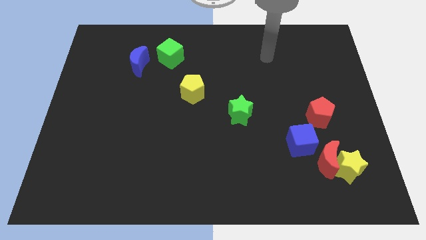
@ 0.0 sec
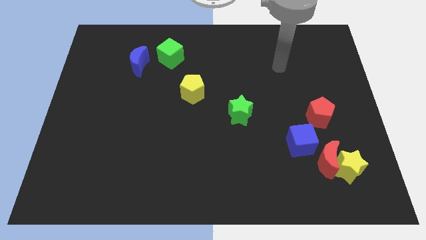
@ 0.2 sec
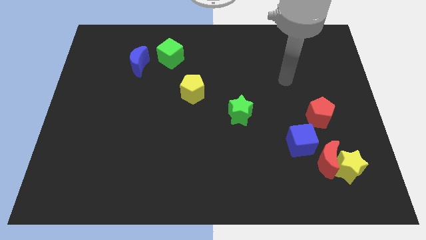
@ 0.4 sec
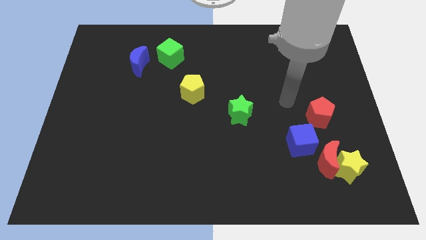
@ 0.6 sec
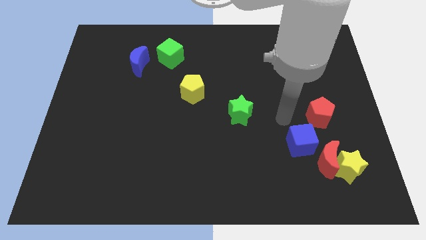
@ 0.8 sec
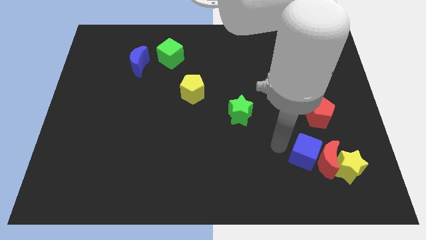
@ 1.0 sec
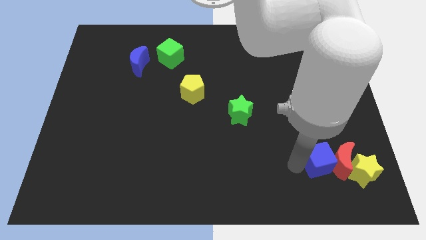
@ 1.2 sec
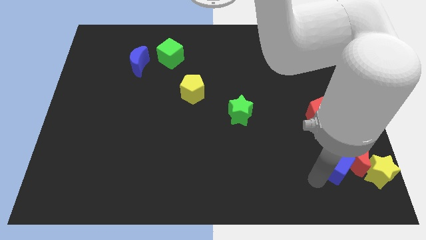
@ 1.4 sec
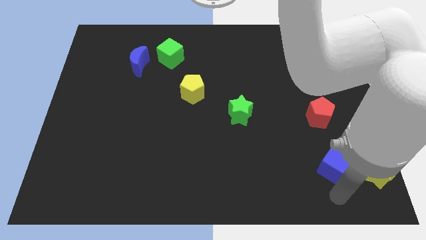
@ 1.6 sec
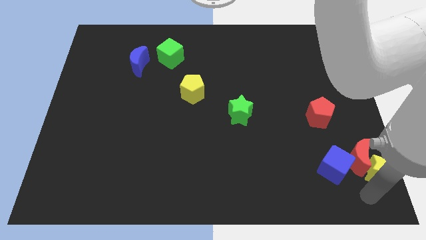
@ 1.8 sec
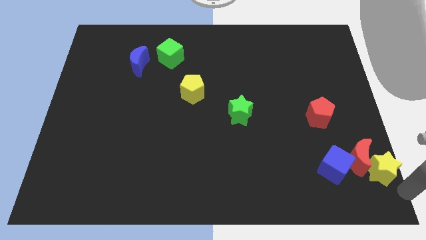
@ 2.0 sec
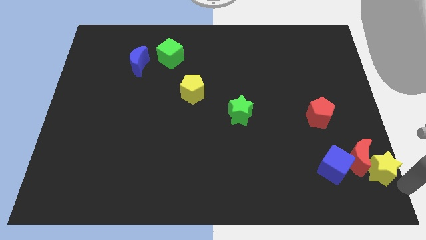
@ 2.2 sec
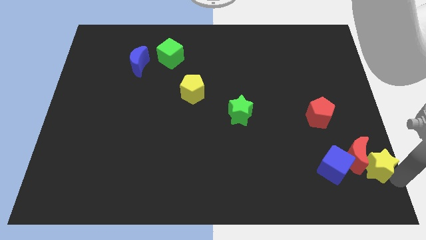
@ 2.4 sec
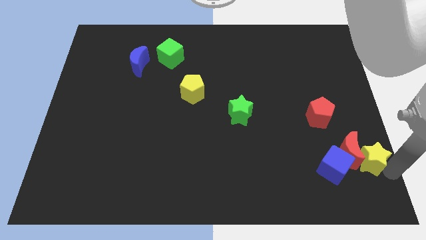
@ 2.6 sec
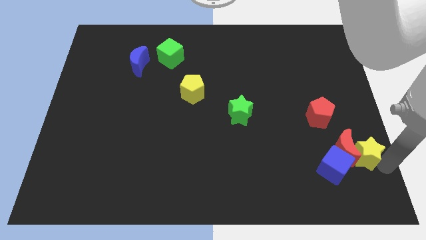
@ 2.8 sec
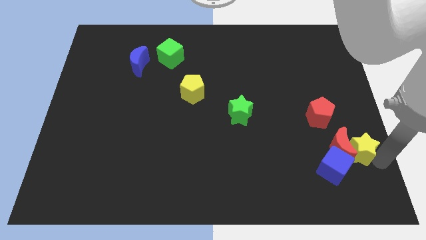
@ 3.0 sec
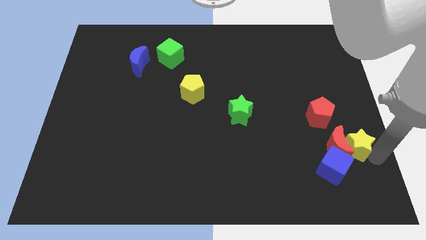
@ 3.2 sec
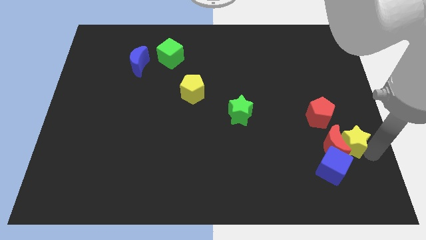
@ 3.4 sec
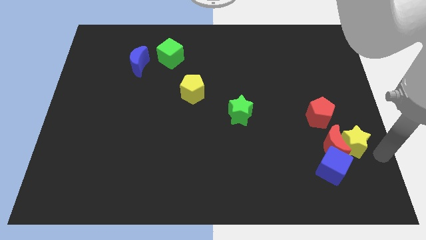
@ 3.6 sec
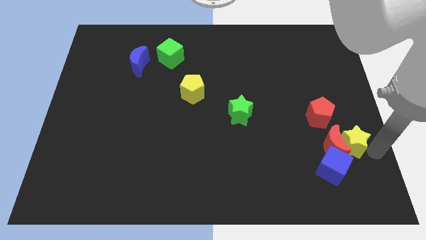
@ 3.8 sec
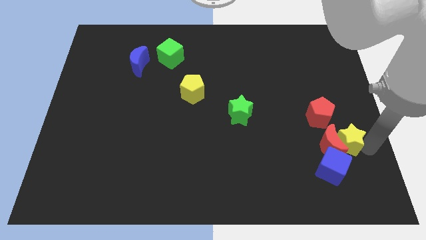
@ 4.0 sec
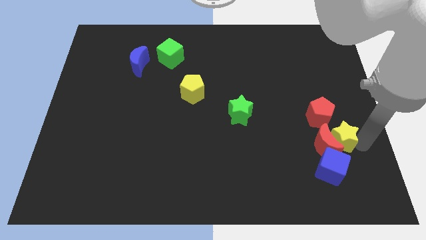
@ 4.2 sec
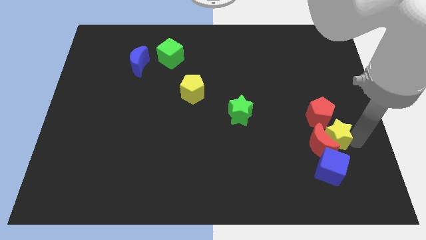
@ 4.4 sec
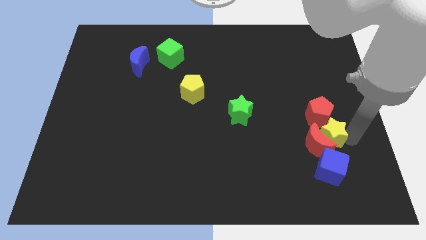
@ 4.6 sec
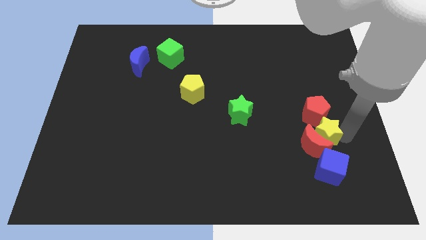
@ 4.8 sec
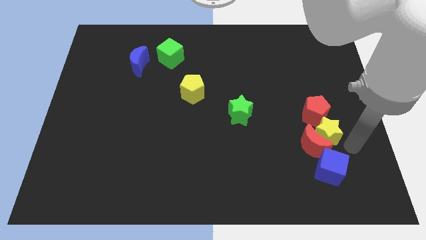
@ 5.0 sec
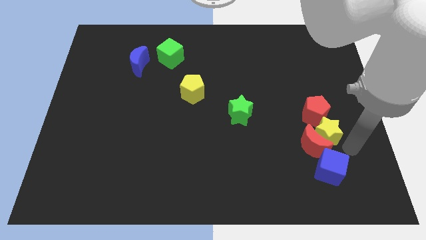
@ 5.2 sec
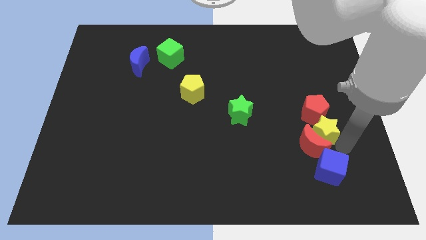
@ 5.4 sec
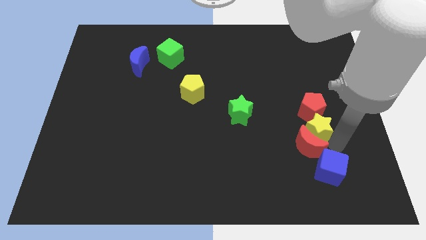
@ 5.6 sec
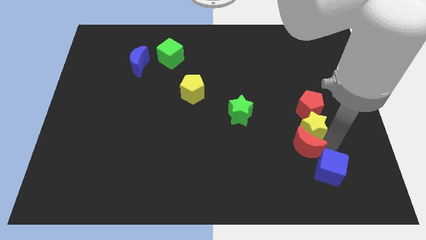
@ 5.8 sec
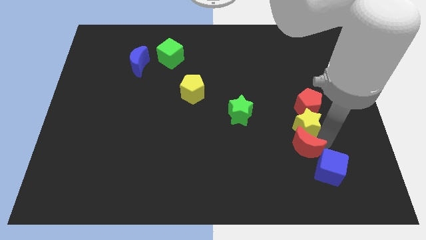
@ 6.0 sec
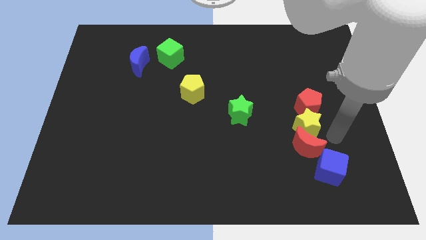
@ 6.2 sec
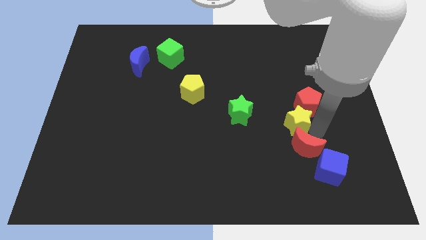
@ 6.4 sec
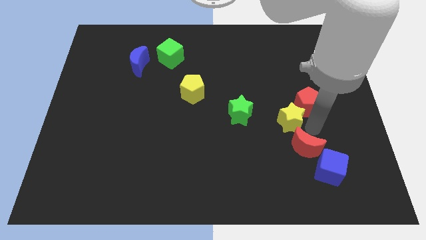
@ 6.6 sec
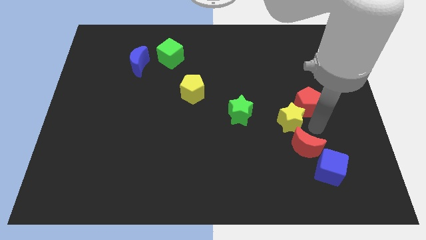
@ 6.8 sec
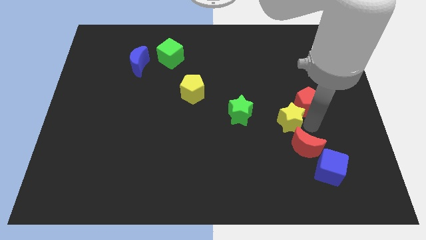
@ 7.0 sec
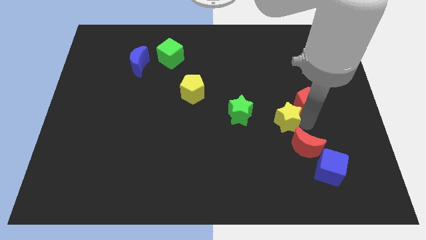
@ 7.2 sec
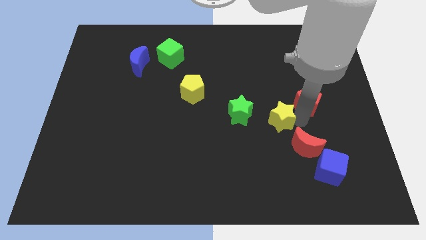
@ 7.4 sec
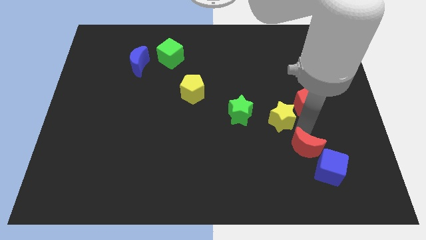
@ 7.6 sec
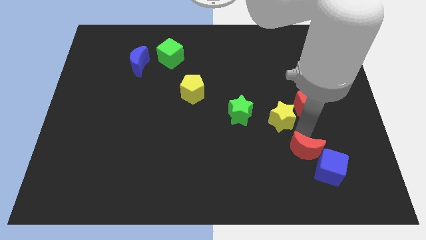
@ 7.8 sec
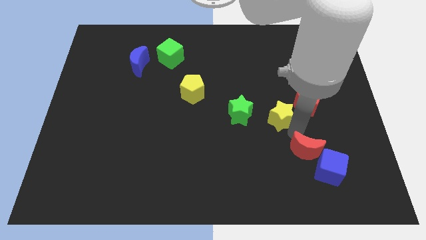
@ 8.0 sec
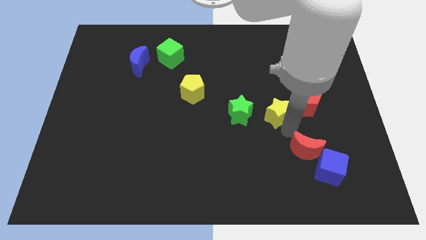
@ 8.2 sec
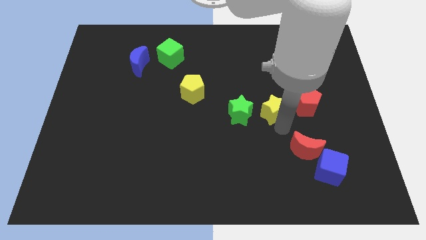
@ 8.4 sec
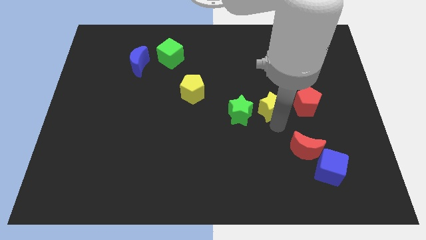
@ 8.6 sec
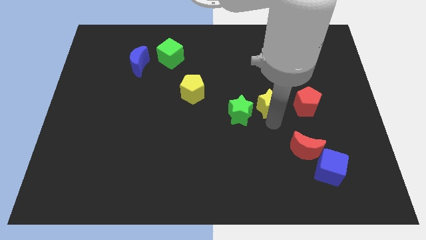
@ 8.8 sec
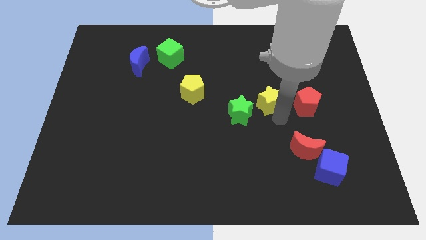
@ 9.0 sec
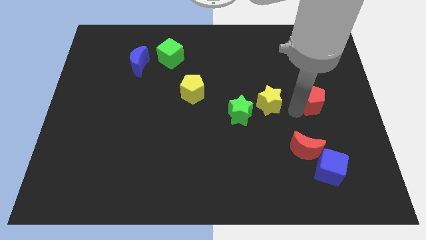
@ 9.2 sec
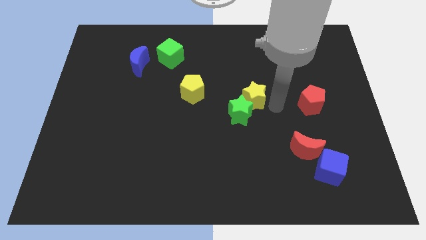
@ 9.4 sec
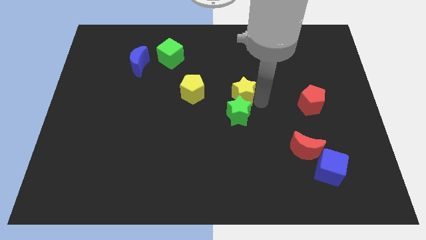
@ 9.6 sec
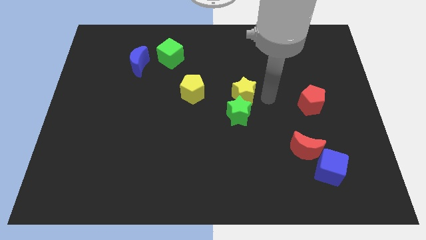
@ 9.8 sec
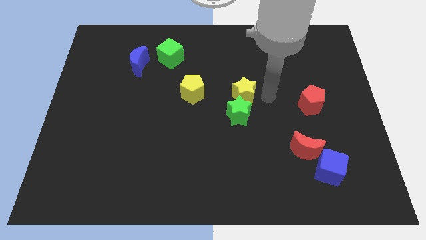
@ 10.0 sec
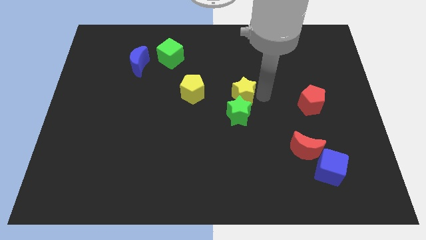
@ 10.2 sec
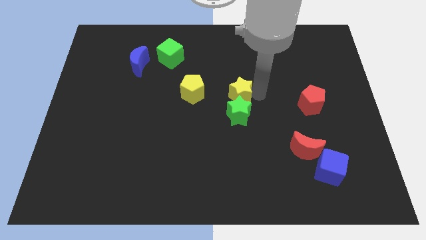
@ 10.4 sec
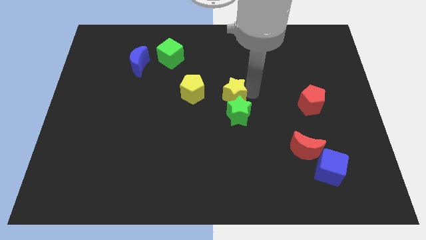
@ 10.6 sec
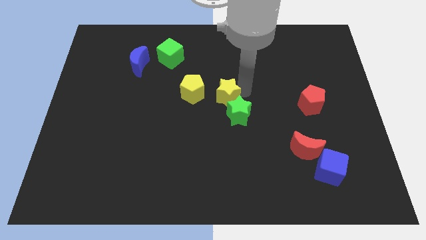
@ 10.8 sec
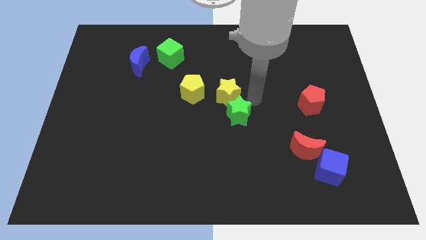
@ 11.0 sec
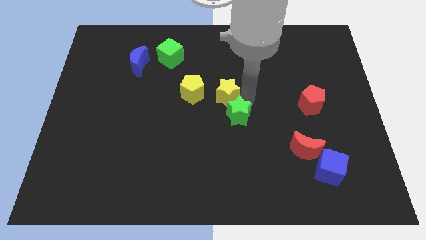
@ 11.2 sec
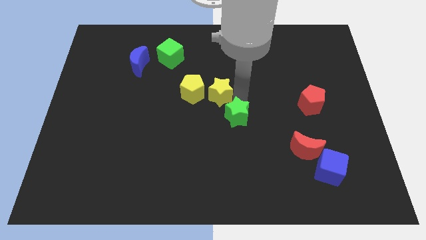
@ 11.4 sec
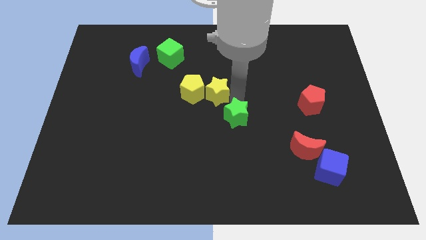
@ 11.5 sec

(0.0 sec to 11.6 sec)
move the yellow star close to the yellow pentagon
